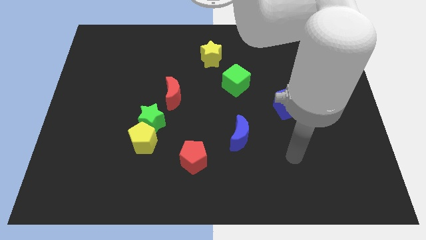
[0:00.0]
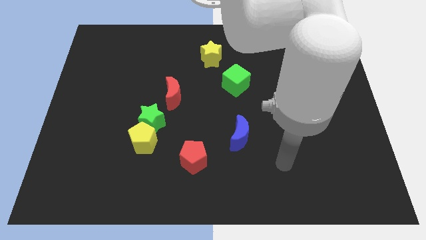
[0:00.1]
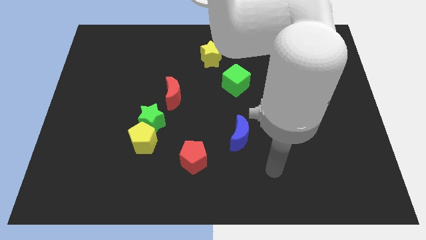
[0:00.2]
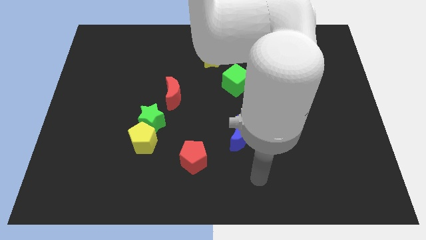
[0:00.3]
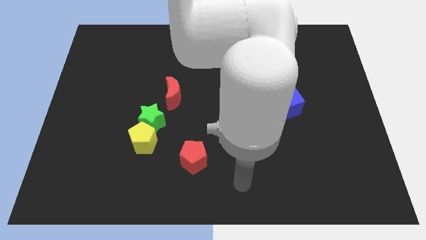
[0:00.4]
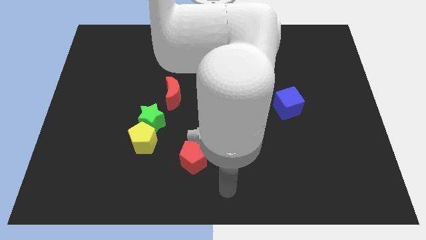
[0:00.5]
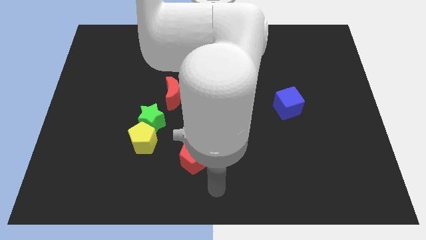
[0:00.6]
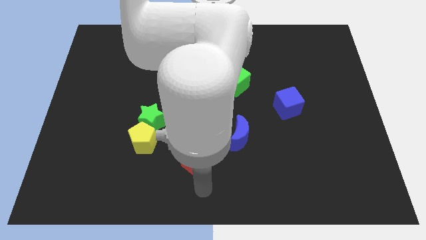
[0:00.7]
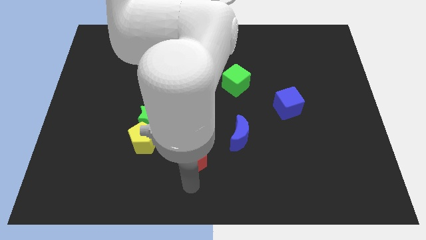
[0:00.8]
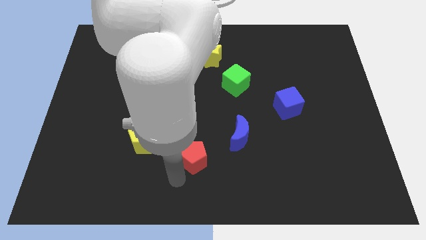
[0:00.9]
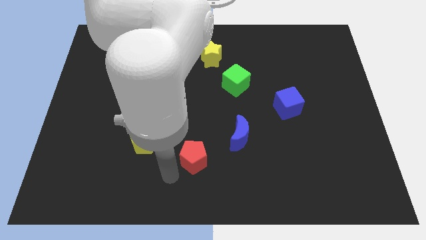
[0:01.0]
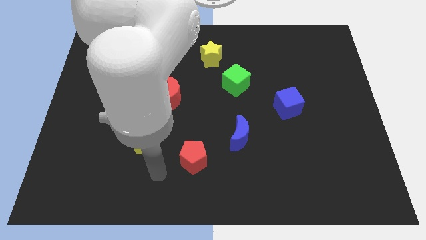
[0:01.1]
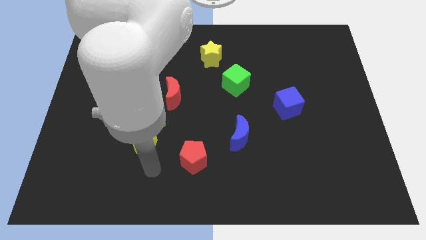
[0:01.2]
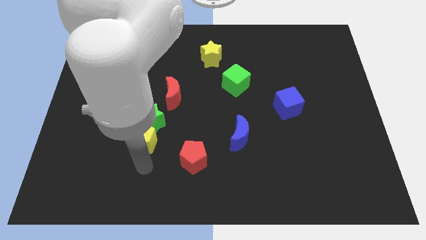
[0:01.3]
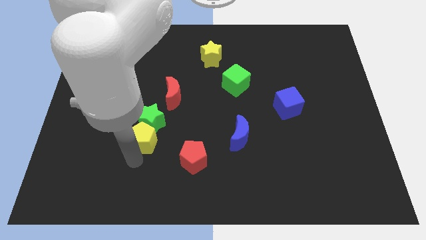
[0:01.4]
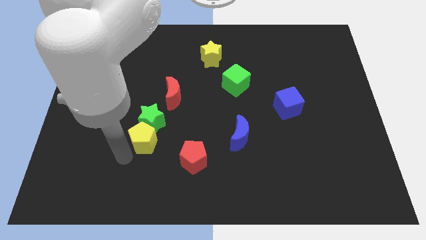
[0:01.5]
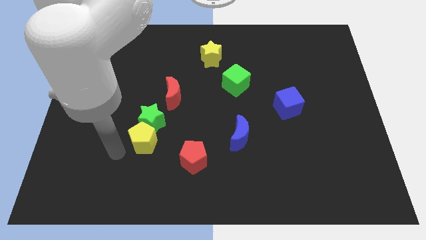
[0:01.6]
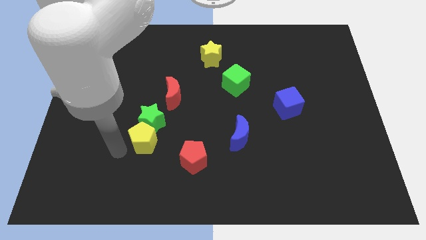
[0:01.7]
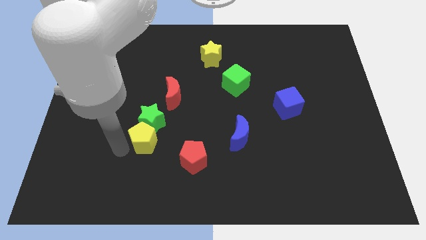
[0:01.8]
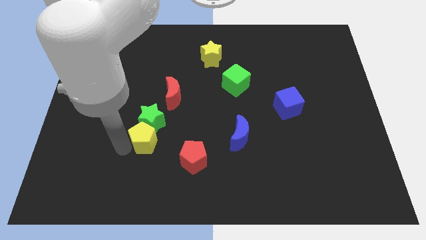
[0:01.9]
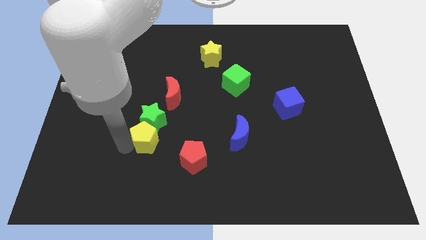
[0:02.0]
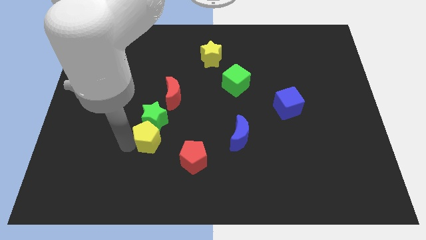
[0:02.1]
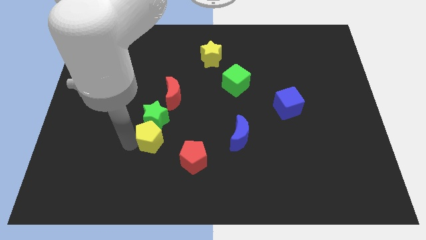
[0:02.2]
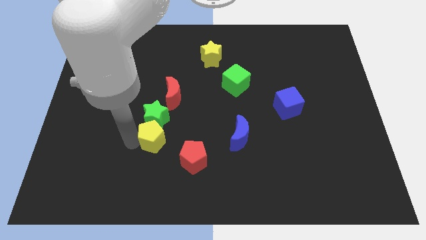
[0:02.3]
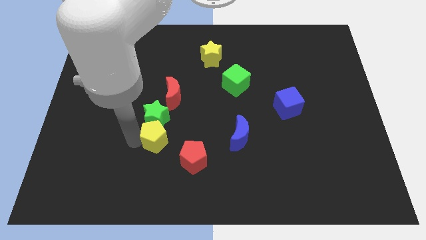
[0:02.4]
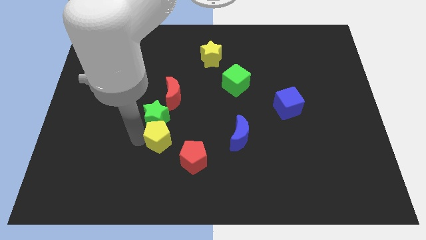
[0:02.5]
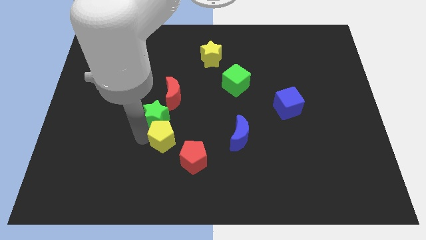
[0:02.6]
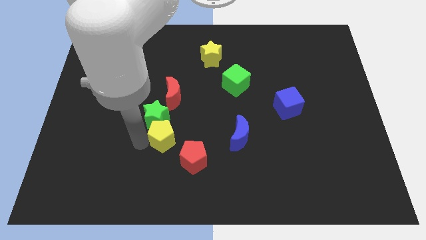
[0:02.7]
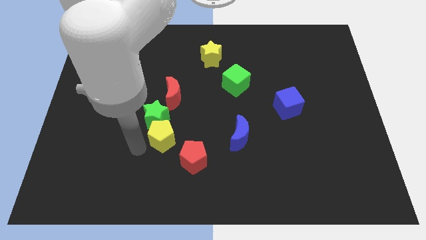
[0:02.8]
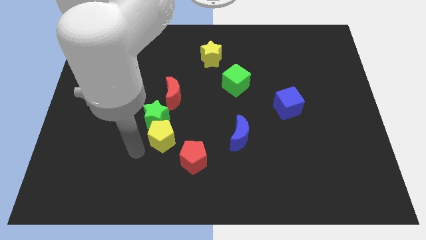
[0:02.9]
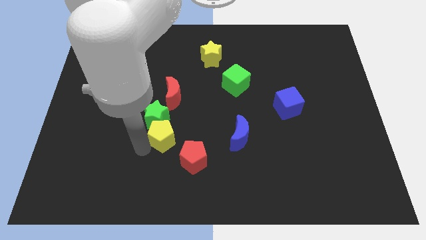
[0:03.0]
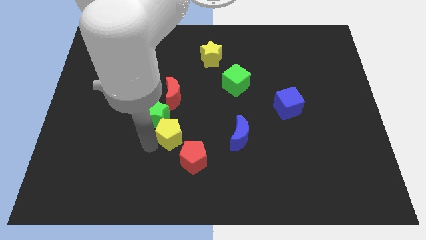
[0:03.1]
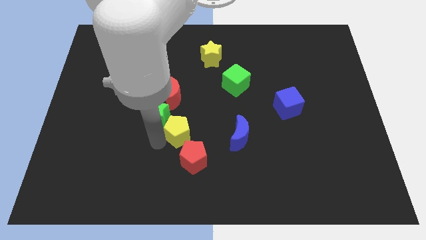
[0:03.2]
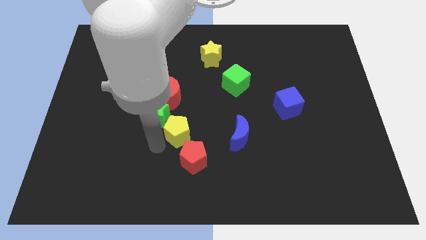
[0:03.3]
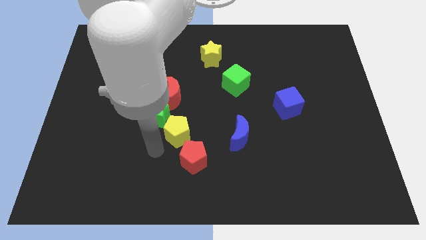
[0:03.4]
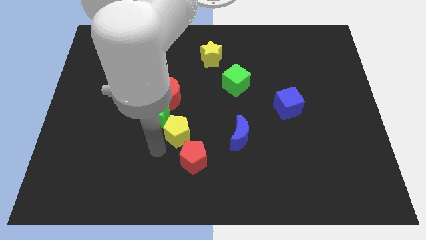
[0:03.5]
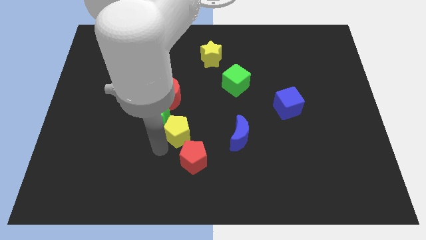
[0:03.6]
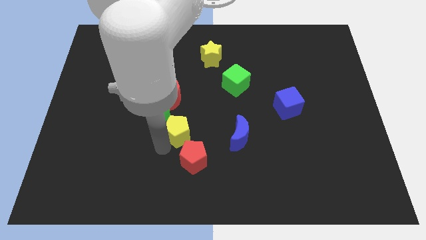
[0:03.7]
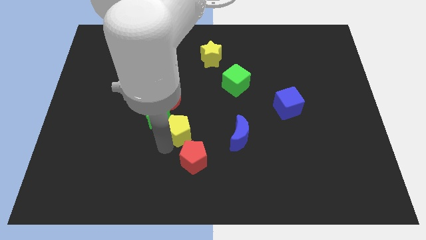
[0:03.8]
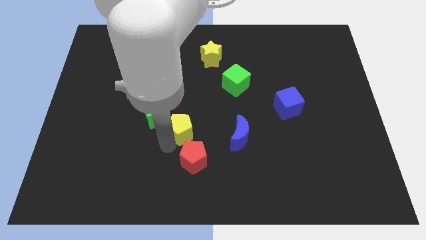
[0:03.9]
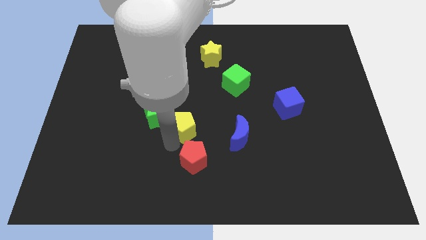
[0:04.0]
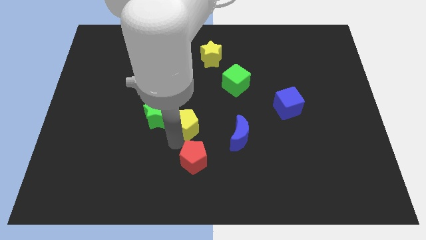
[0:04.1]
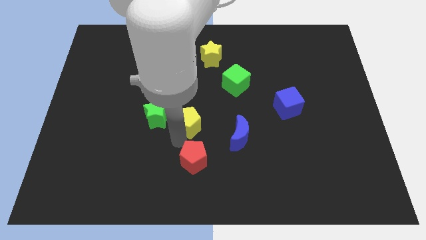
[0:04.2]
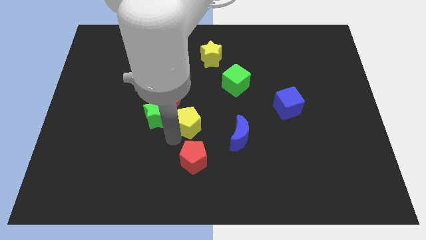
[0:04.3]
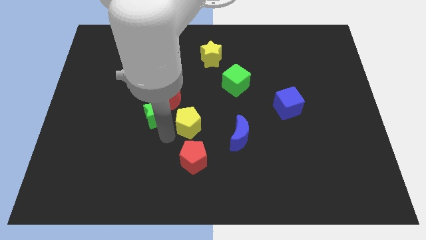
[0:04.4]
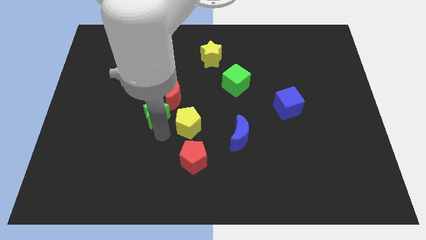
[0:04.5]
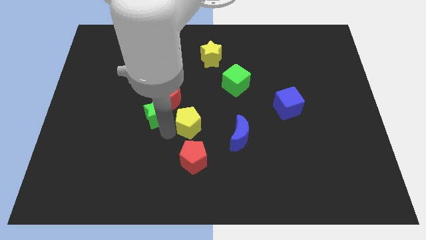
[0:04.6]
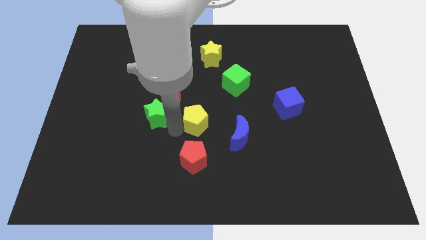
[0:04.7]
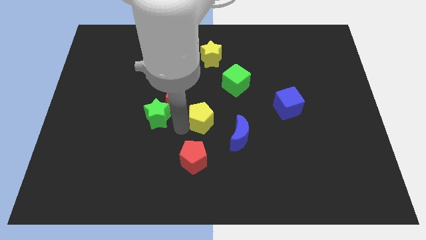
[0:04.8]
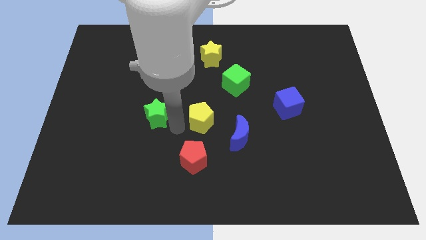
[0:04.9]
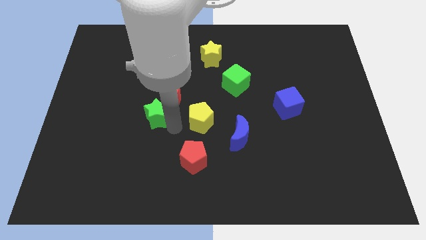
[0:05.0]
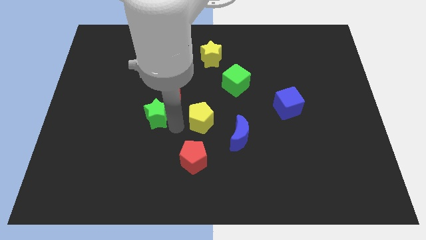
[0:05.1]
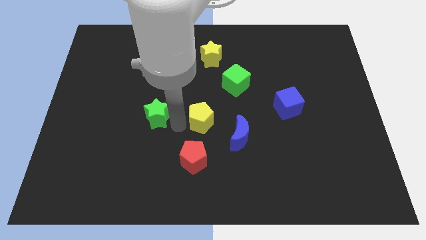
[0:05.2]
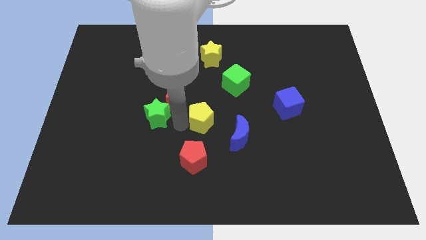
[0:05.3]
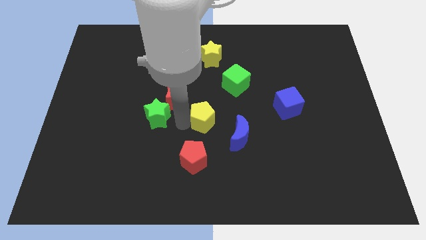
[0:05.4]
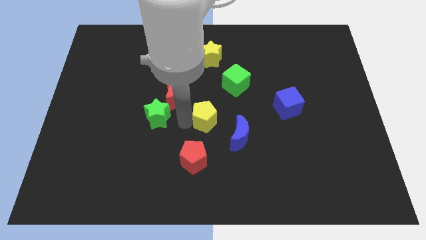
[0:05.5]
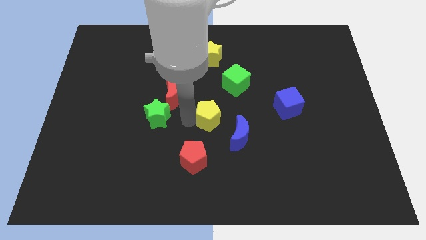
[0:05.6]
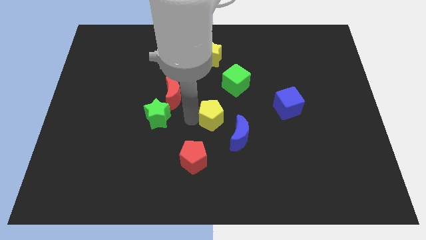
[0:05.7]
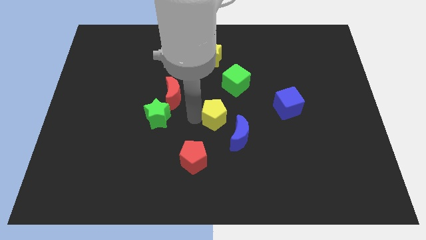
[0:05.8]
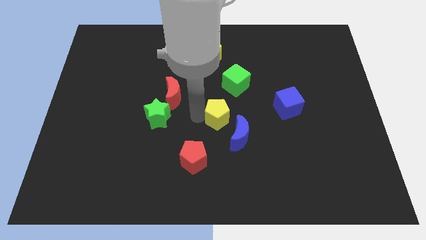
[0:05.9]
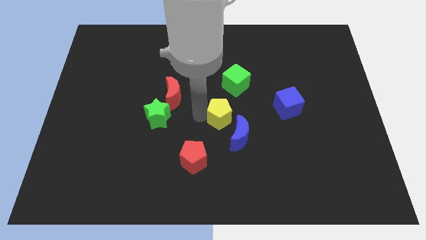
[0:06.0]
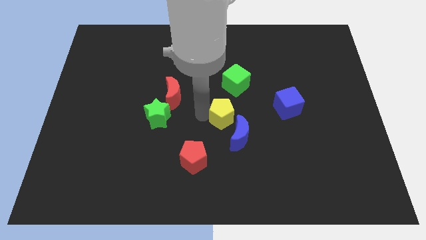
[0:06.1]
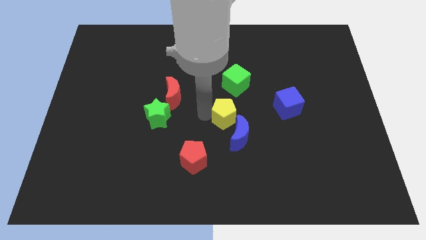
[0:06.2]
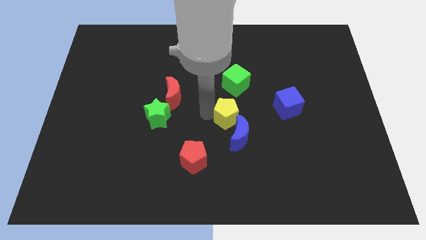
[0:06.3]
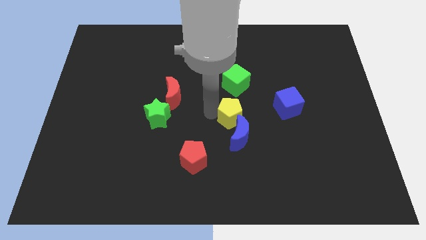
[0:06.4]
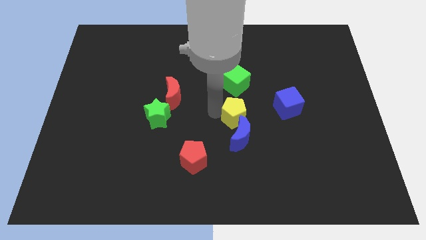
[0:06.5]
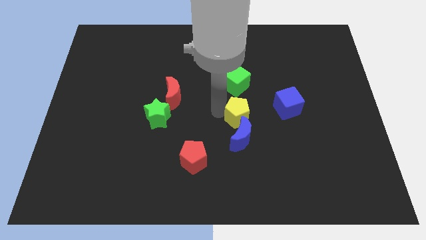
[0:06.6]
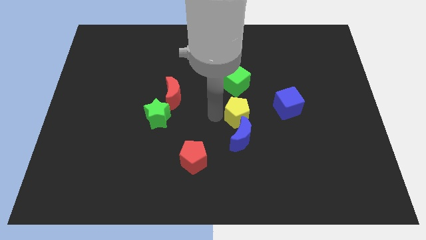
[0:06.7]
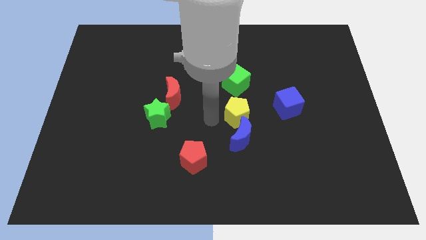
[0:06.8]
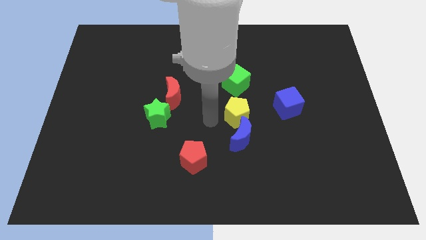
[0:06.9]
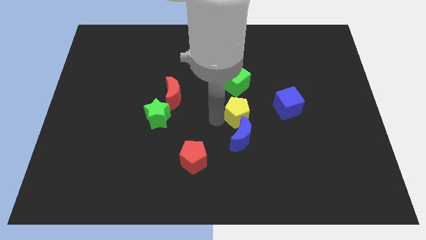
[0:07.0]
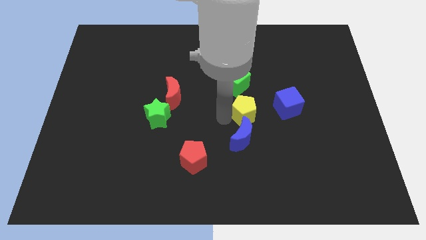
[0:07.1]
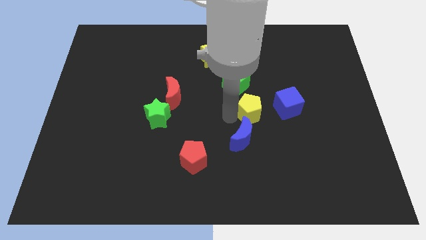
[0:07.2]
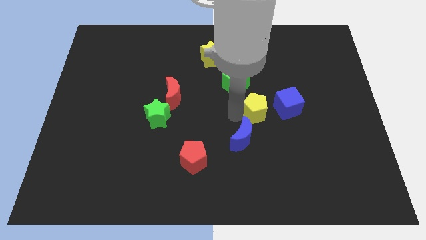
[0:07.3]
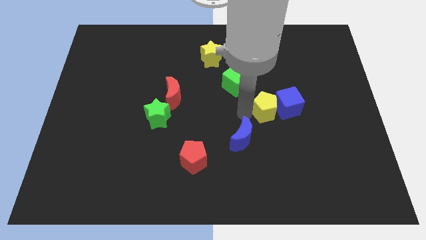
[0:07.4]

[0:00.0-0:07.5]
move the yellow pentagon next to the blue cube

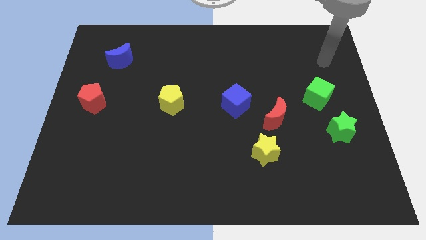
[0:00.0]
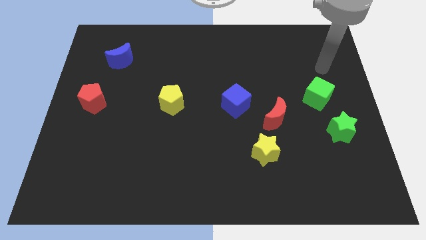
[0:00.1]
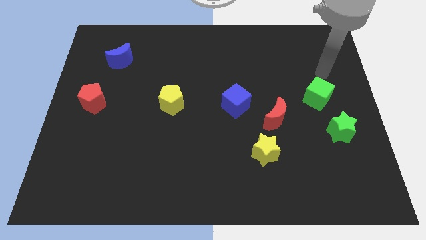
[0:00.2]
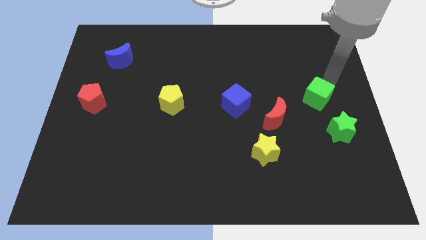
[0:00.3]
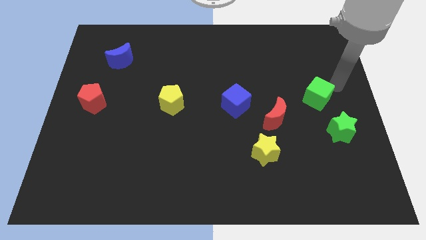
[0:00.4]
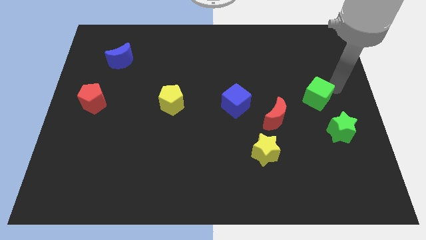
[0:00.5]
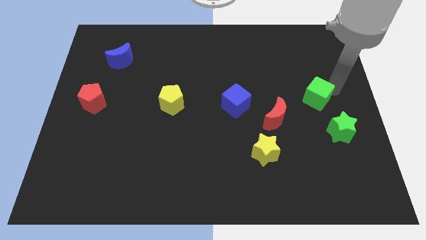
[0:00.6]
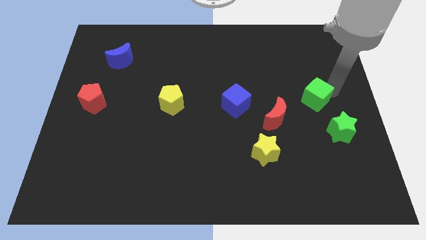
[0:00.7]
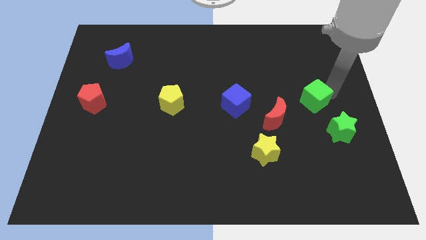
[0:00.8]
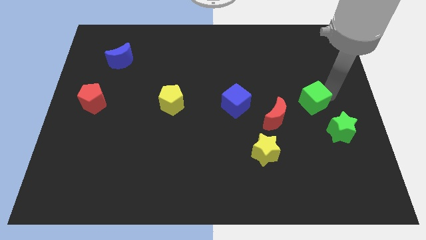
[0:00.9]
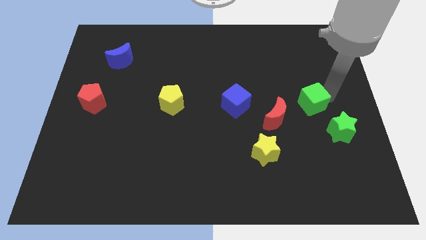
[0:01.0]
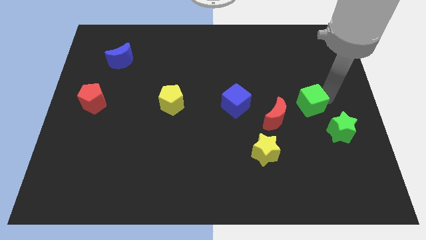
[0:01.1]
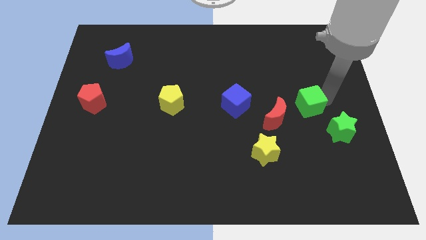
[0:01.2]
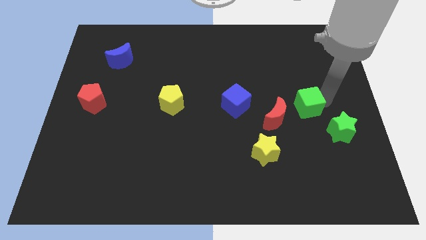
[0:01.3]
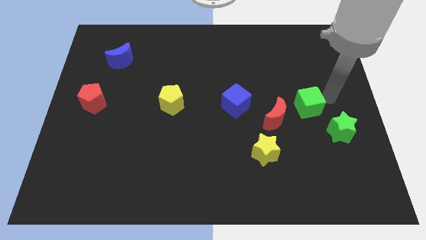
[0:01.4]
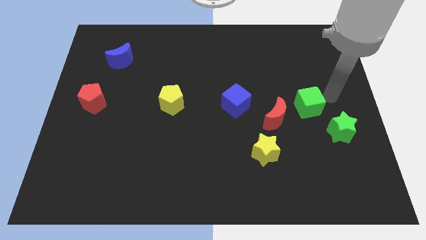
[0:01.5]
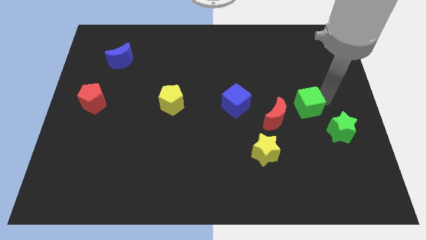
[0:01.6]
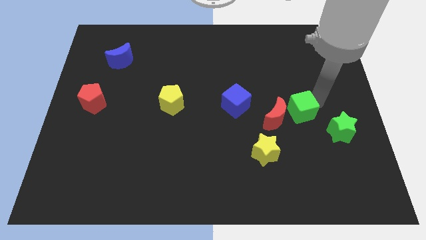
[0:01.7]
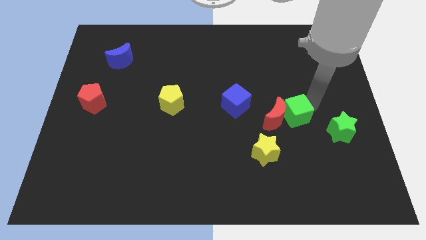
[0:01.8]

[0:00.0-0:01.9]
move the green cube close to the red moon
